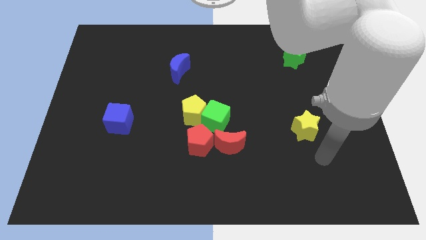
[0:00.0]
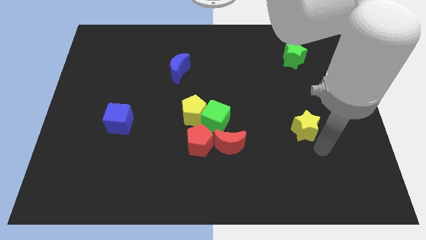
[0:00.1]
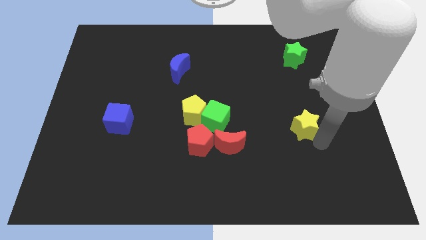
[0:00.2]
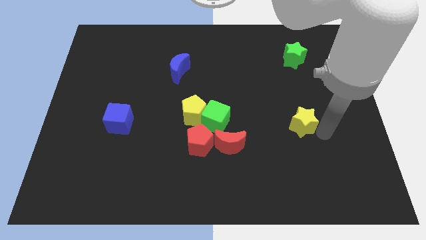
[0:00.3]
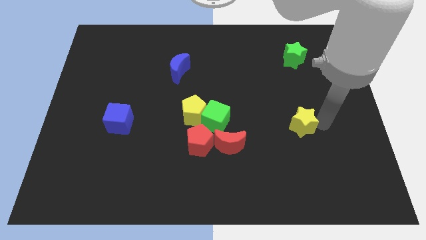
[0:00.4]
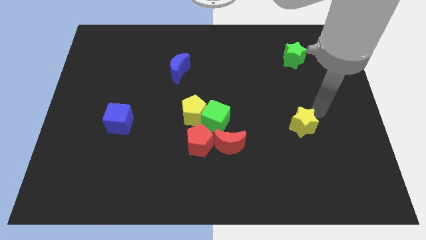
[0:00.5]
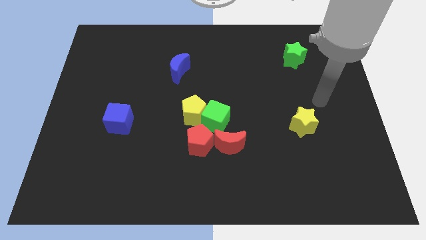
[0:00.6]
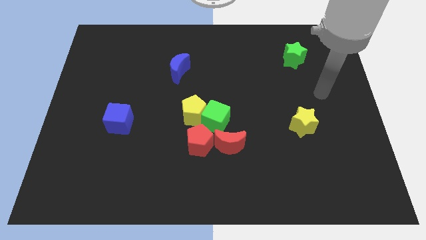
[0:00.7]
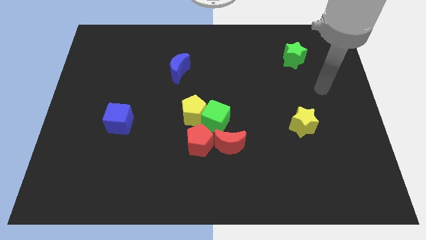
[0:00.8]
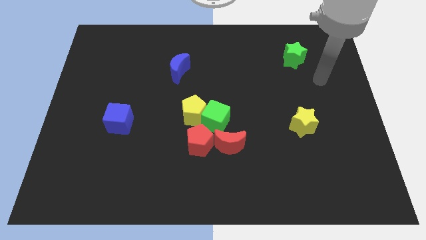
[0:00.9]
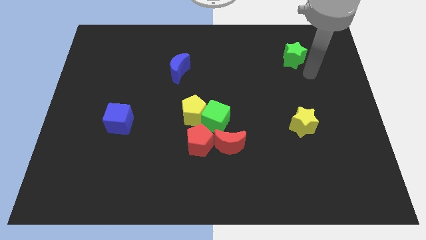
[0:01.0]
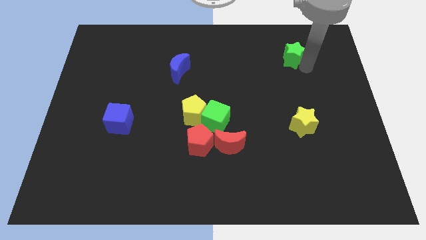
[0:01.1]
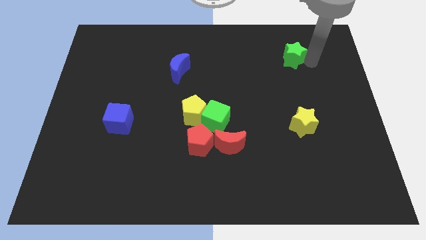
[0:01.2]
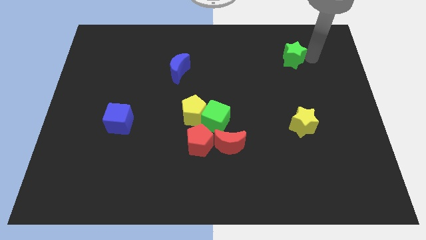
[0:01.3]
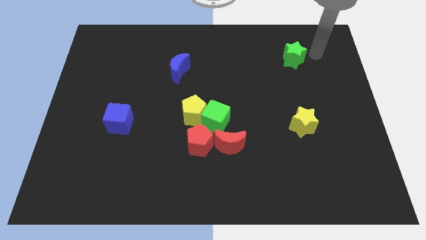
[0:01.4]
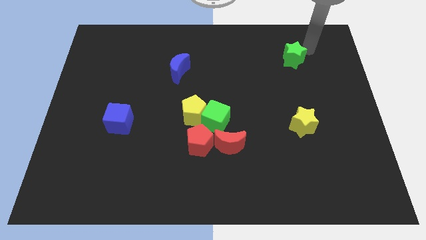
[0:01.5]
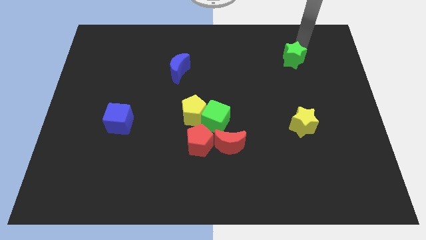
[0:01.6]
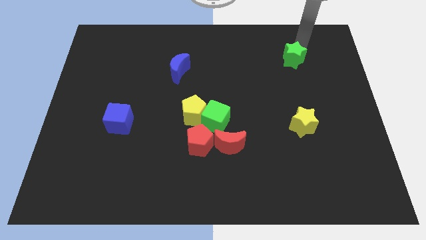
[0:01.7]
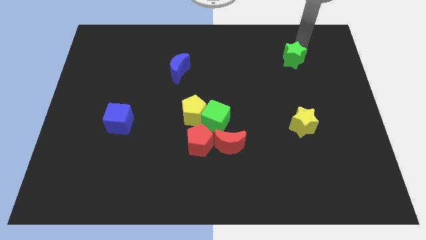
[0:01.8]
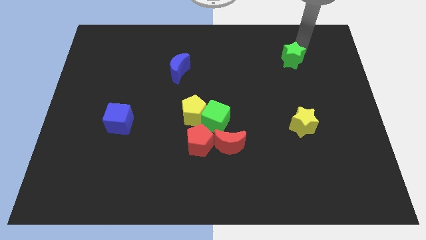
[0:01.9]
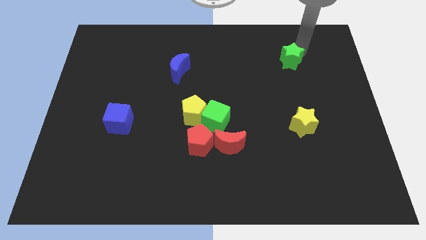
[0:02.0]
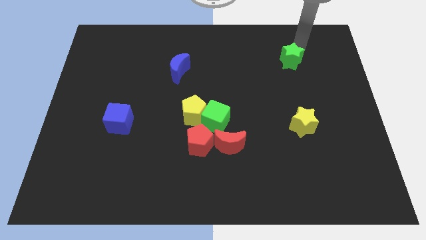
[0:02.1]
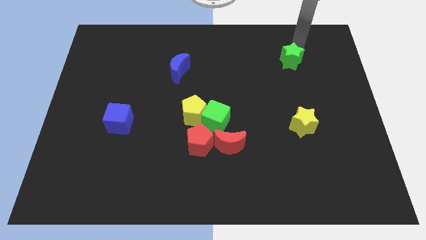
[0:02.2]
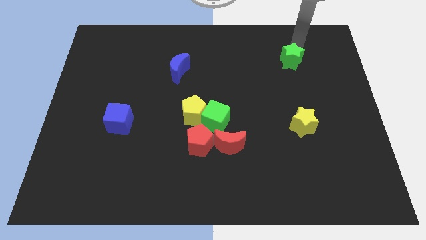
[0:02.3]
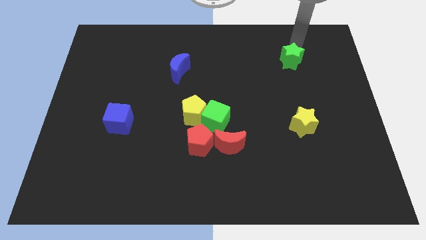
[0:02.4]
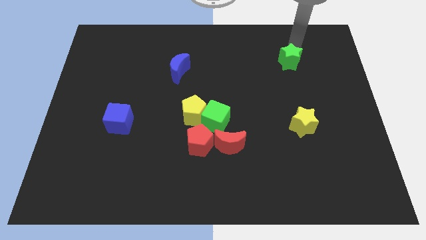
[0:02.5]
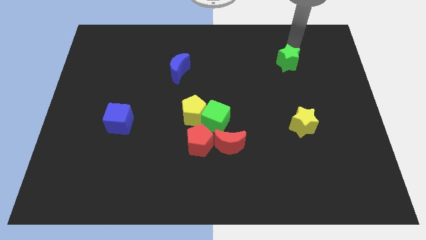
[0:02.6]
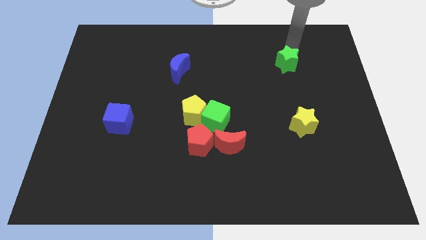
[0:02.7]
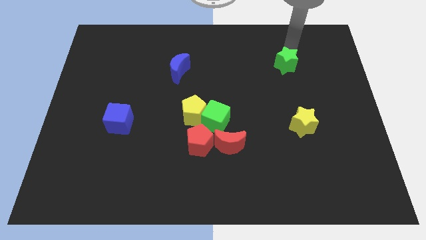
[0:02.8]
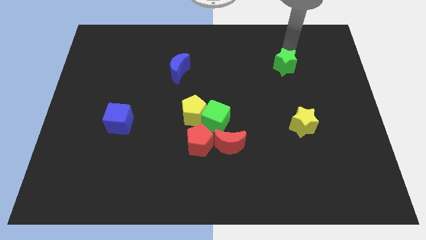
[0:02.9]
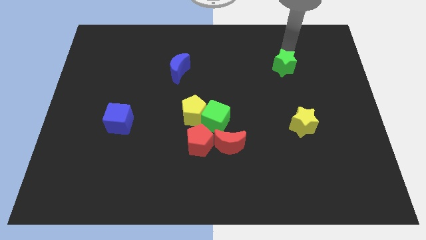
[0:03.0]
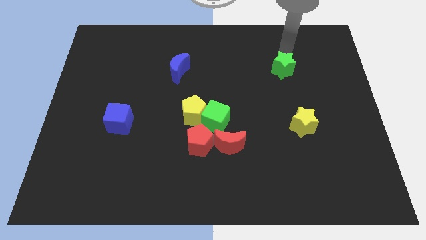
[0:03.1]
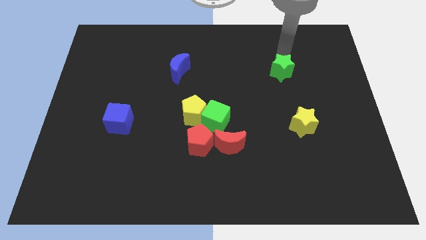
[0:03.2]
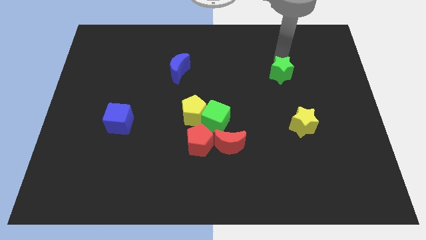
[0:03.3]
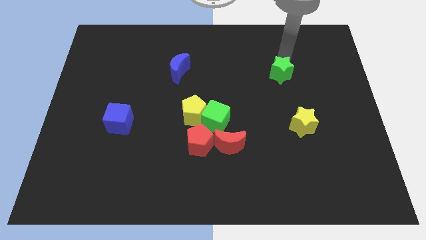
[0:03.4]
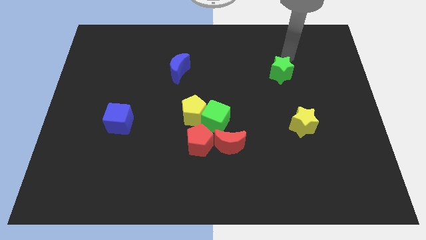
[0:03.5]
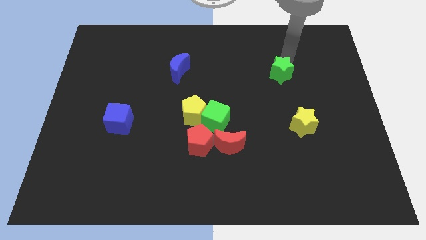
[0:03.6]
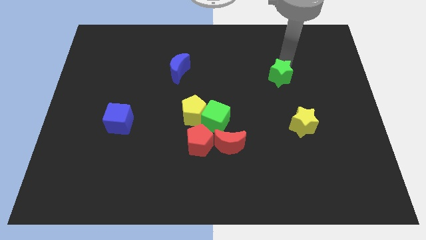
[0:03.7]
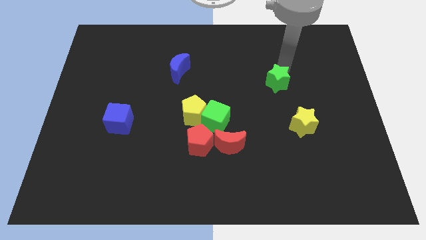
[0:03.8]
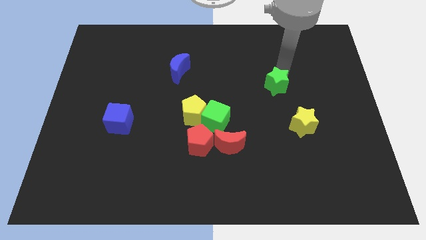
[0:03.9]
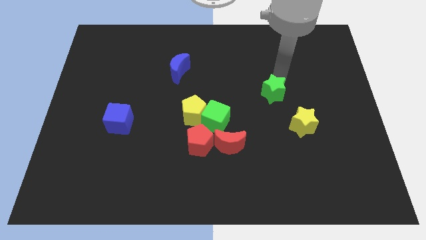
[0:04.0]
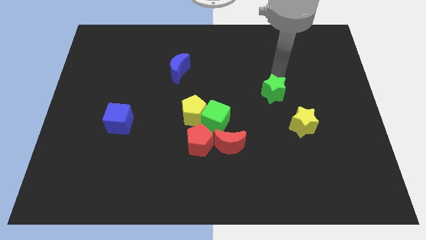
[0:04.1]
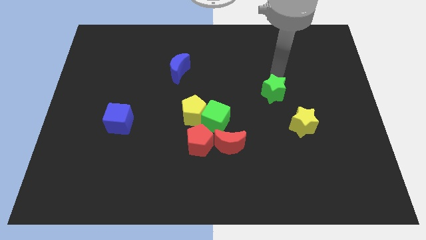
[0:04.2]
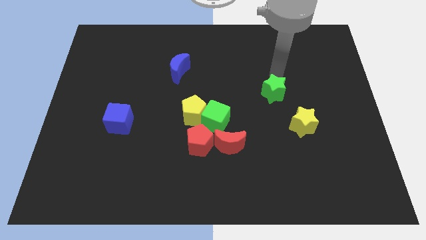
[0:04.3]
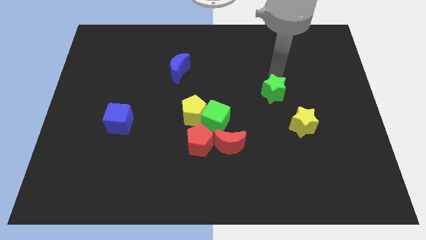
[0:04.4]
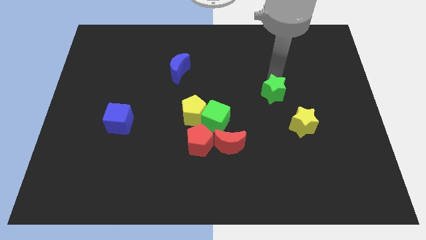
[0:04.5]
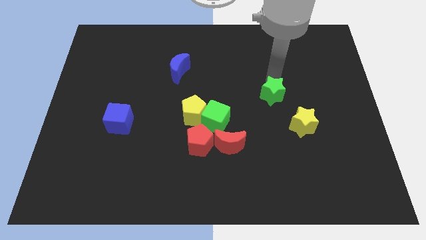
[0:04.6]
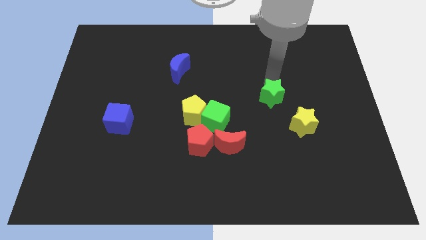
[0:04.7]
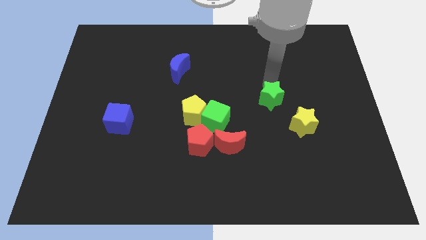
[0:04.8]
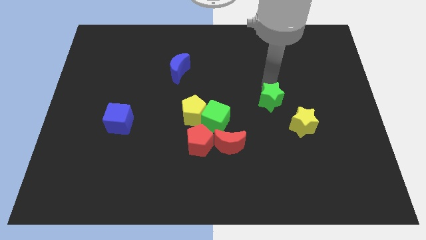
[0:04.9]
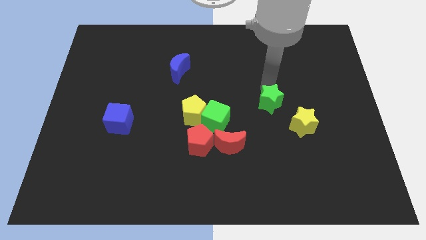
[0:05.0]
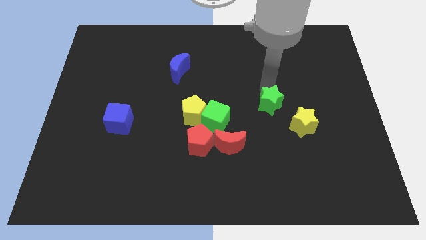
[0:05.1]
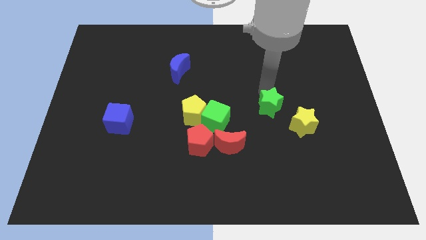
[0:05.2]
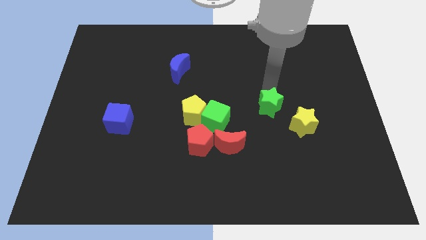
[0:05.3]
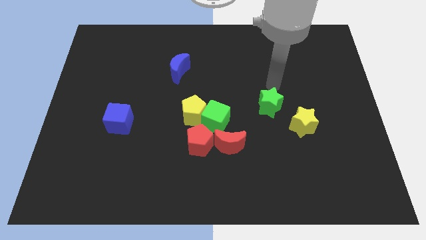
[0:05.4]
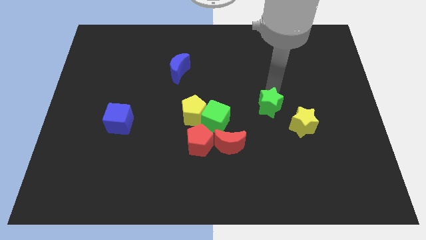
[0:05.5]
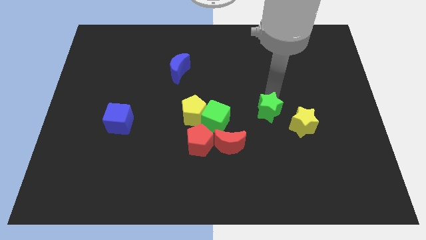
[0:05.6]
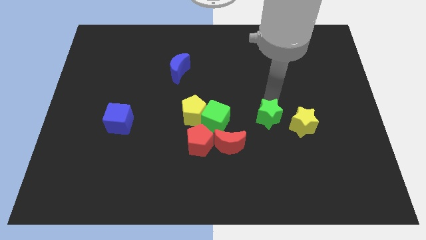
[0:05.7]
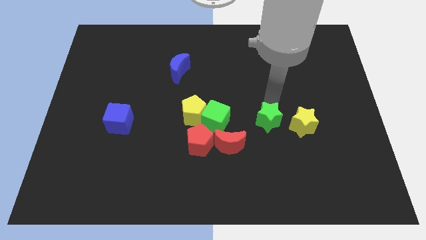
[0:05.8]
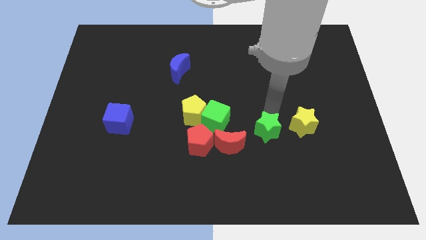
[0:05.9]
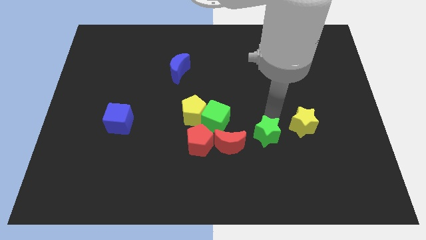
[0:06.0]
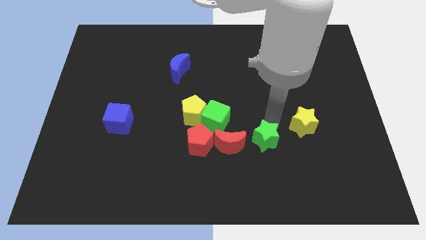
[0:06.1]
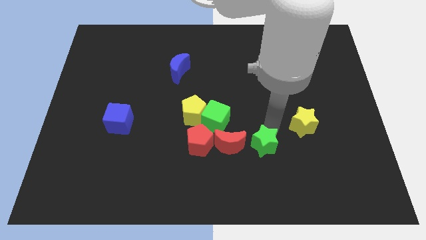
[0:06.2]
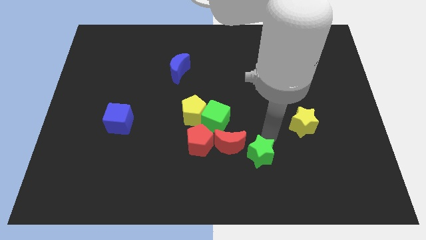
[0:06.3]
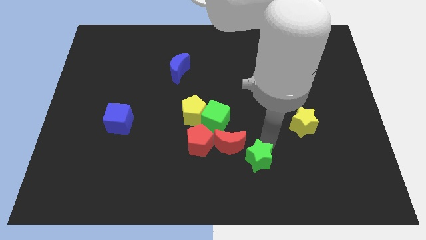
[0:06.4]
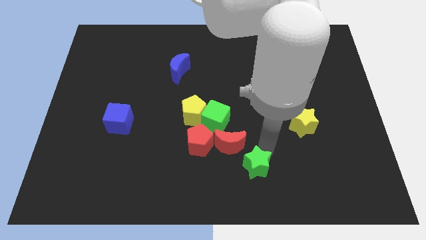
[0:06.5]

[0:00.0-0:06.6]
move the green star to the bottom side
